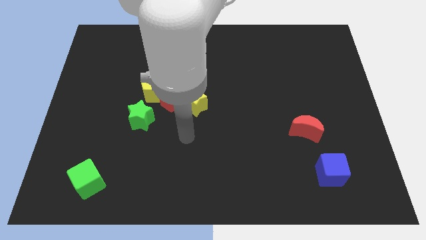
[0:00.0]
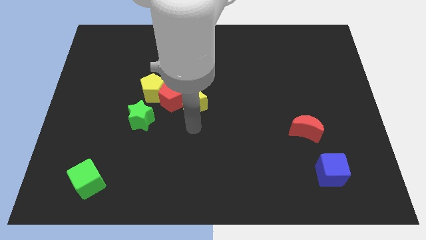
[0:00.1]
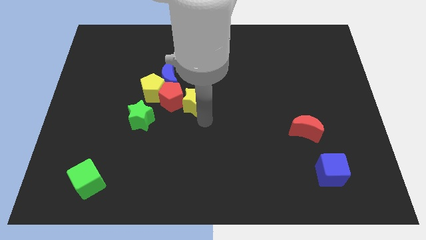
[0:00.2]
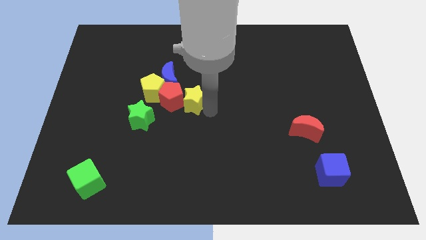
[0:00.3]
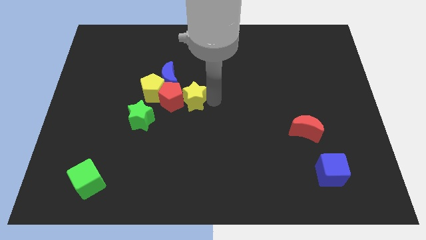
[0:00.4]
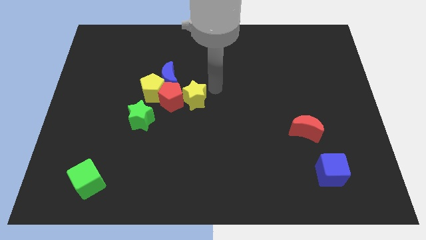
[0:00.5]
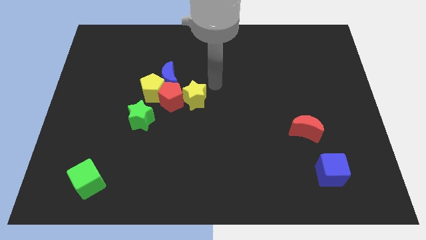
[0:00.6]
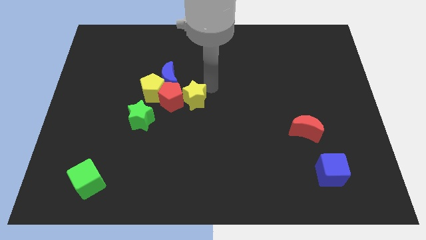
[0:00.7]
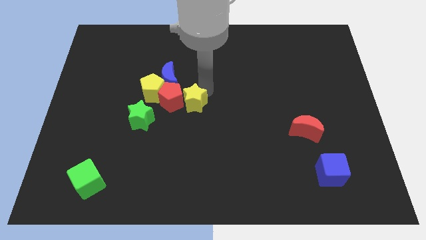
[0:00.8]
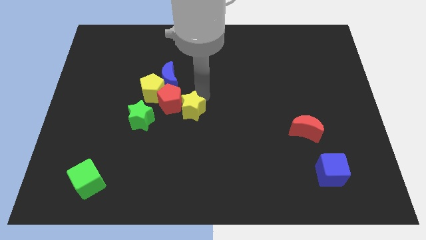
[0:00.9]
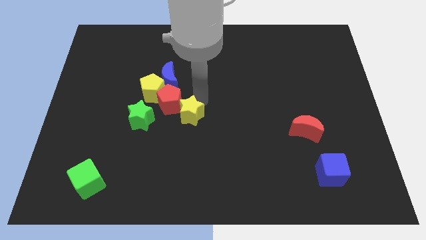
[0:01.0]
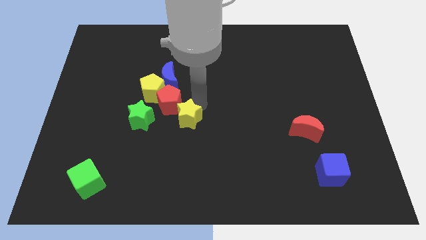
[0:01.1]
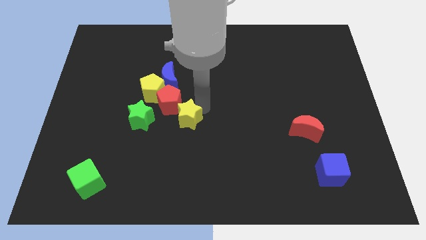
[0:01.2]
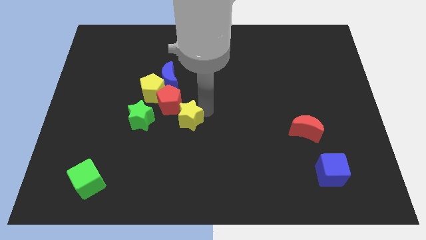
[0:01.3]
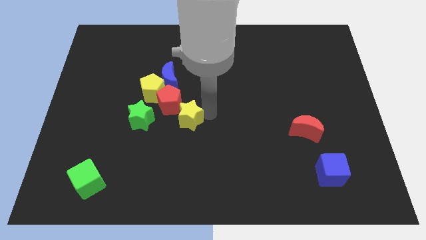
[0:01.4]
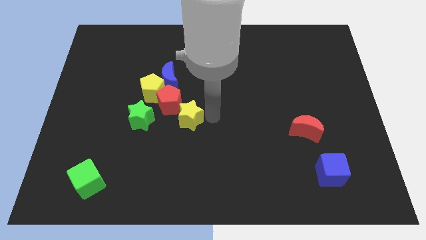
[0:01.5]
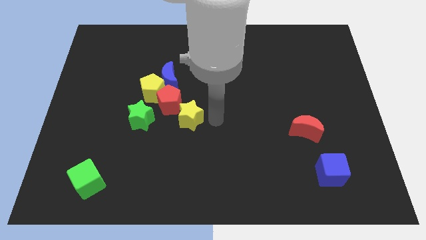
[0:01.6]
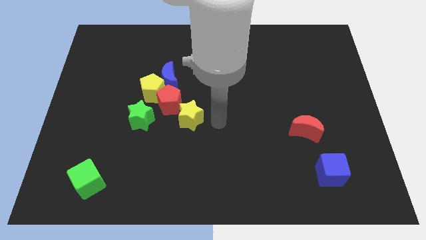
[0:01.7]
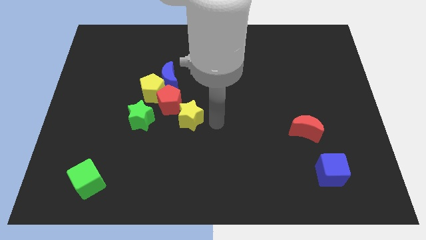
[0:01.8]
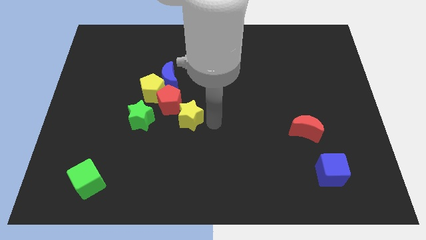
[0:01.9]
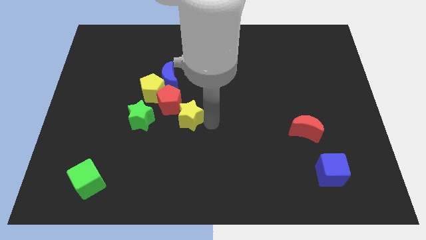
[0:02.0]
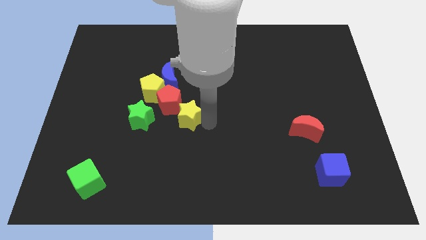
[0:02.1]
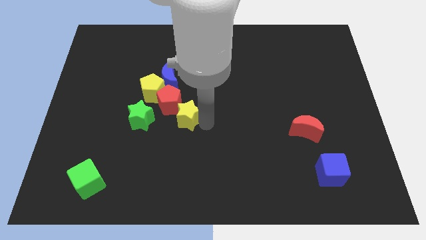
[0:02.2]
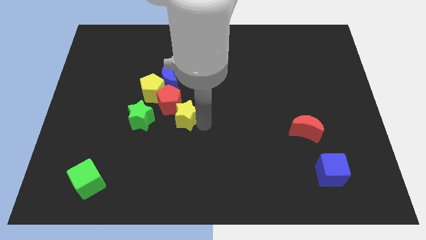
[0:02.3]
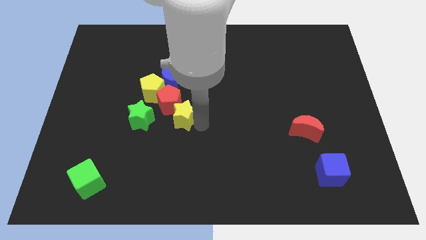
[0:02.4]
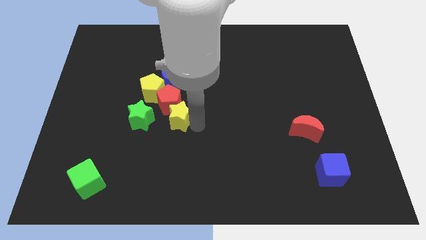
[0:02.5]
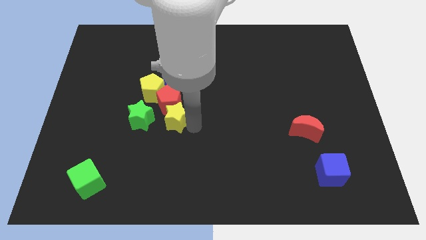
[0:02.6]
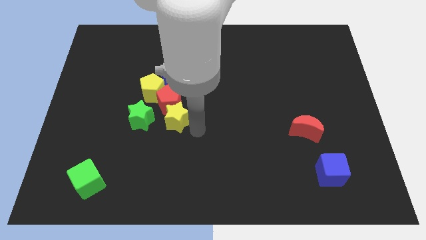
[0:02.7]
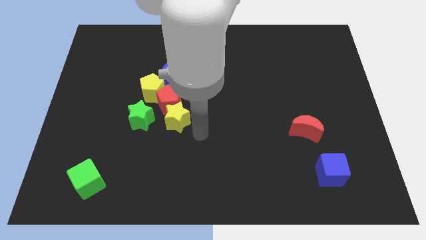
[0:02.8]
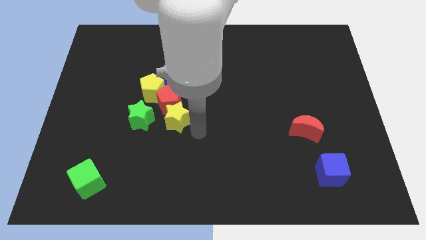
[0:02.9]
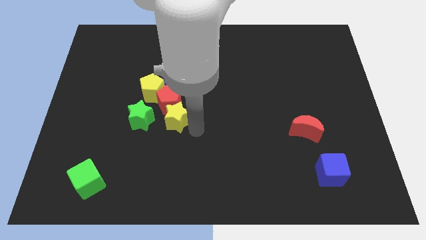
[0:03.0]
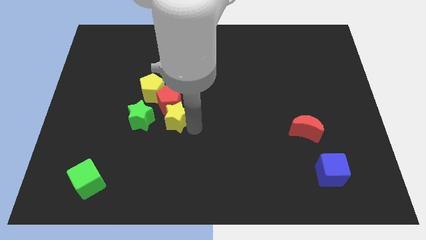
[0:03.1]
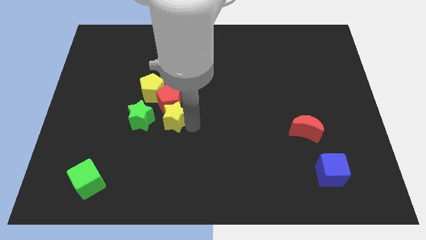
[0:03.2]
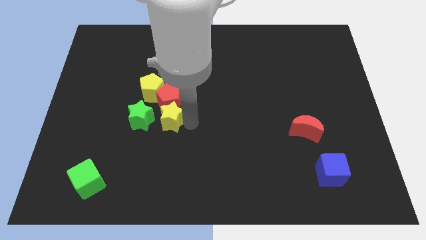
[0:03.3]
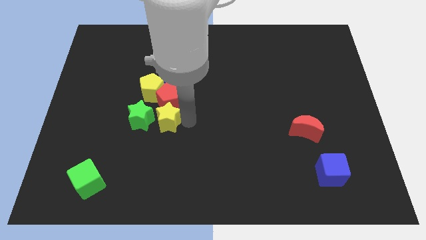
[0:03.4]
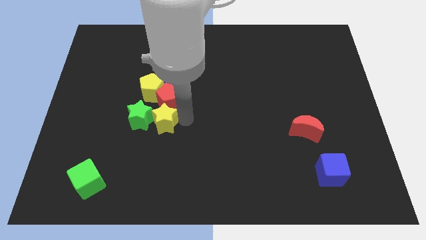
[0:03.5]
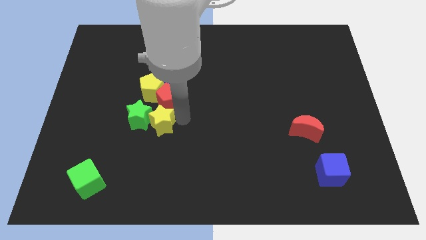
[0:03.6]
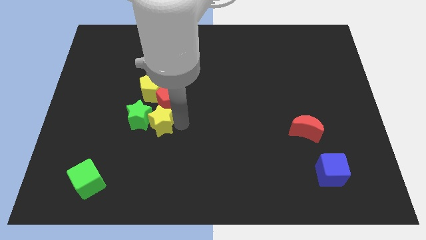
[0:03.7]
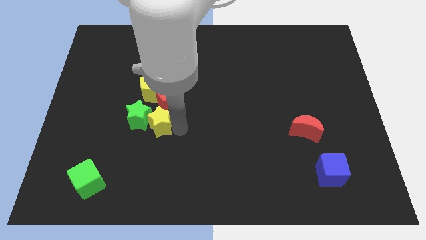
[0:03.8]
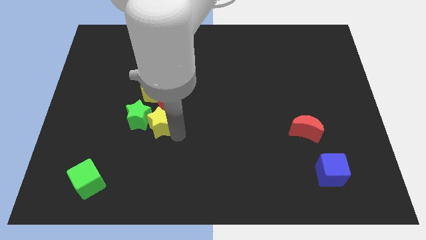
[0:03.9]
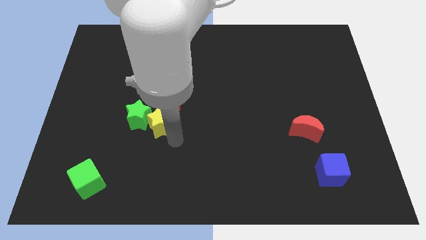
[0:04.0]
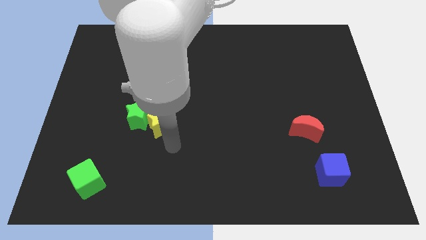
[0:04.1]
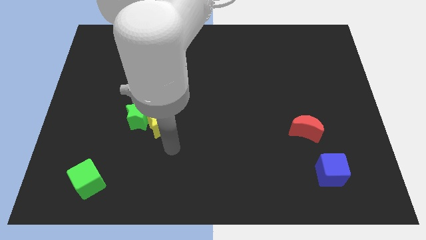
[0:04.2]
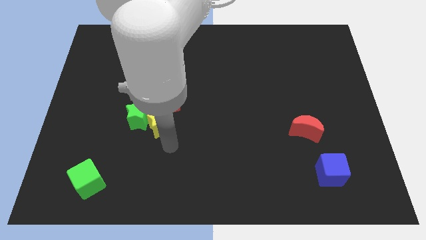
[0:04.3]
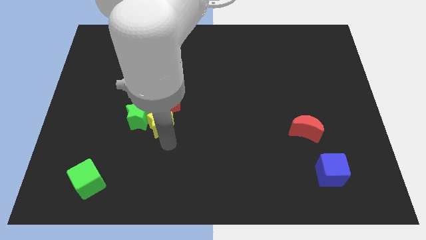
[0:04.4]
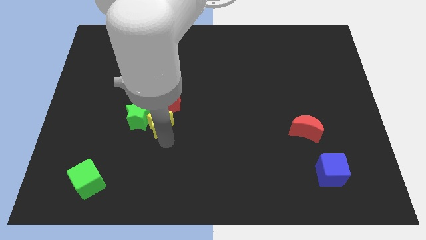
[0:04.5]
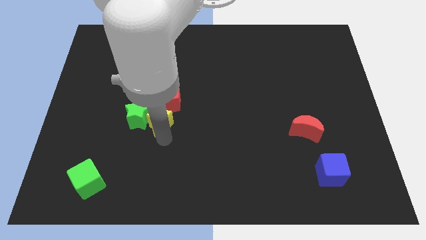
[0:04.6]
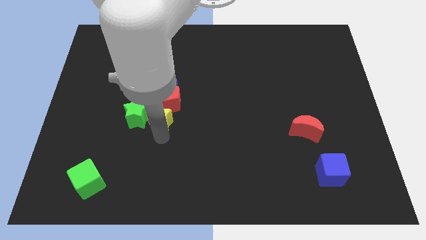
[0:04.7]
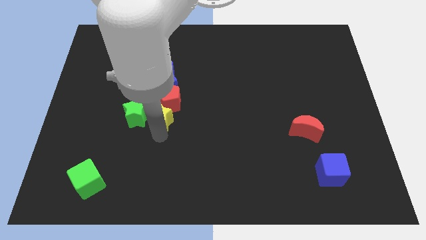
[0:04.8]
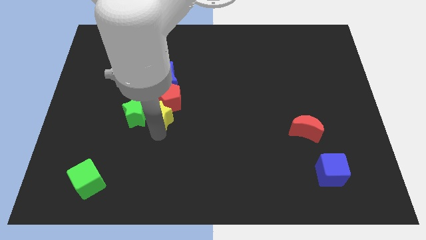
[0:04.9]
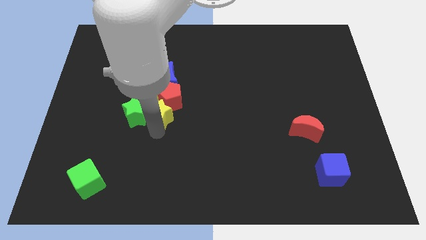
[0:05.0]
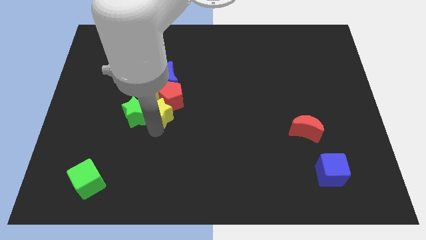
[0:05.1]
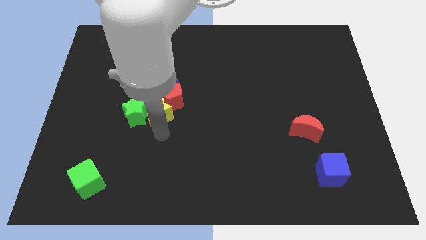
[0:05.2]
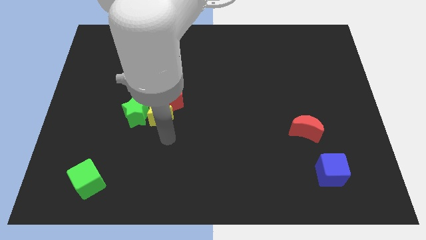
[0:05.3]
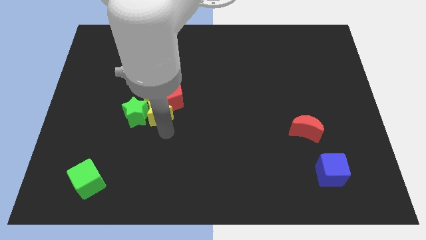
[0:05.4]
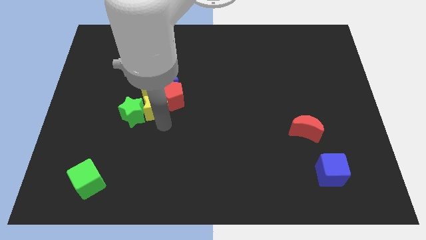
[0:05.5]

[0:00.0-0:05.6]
slide the yellow star next to the yellow pentagon

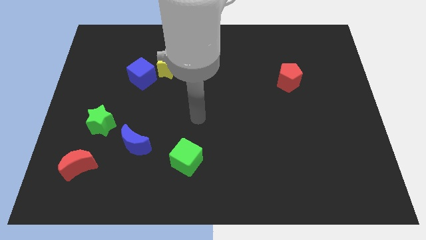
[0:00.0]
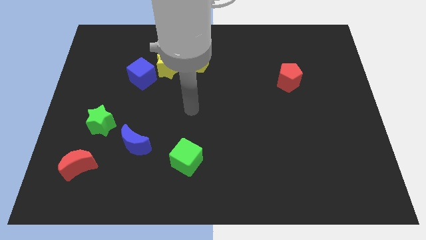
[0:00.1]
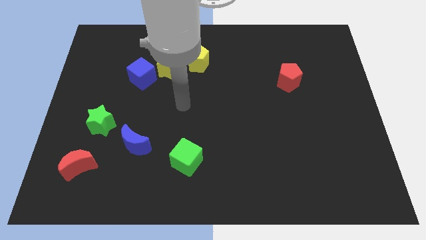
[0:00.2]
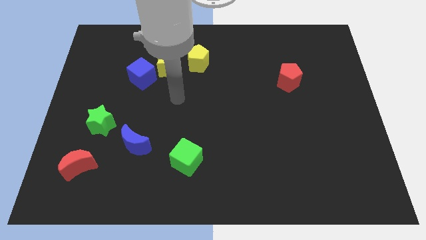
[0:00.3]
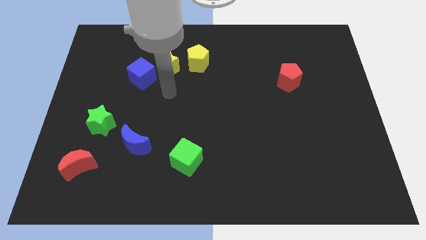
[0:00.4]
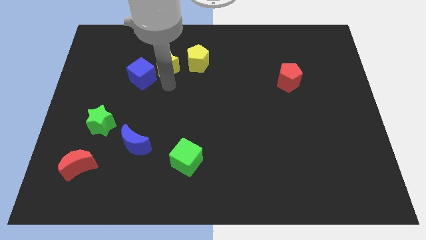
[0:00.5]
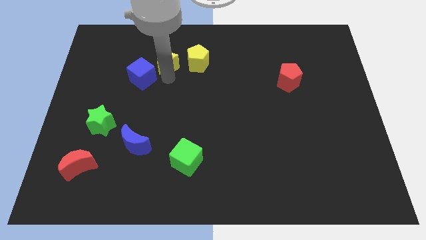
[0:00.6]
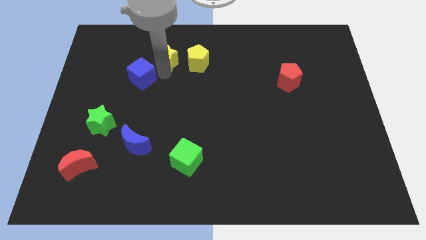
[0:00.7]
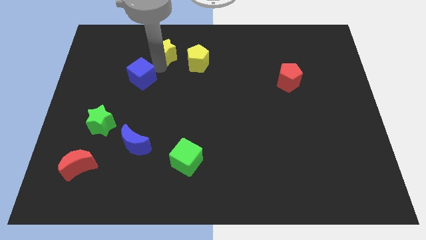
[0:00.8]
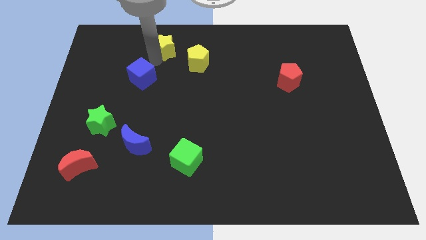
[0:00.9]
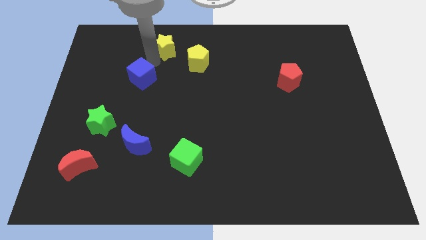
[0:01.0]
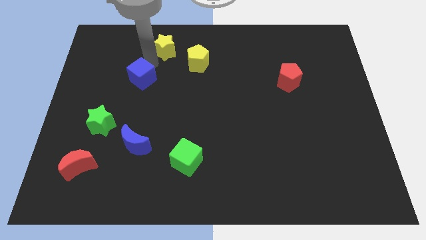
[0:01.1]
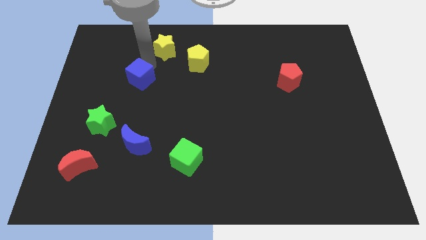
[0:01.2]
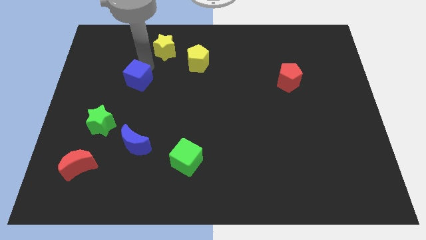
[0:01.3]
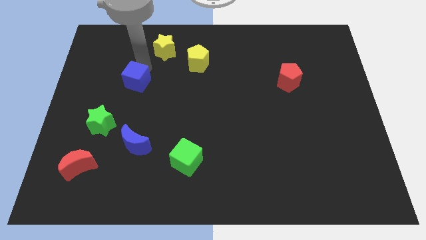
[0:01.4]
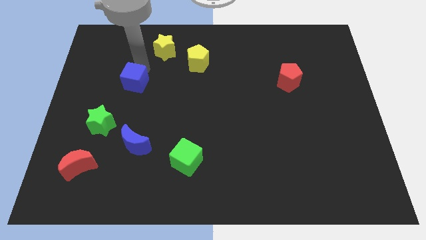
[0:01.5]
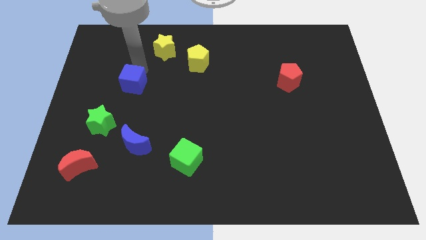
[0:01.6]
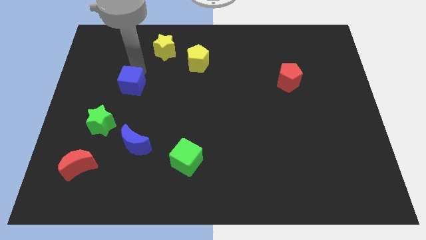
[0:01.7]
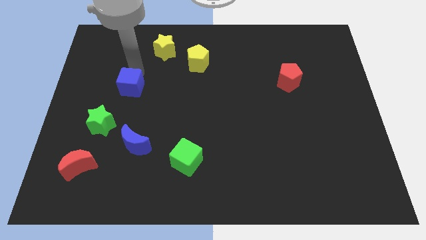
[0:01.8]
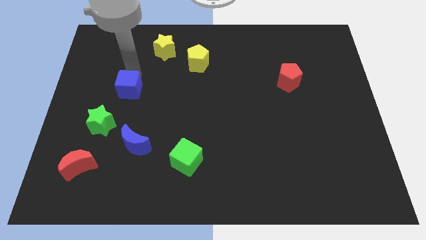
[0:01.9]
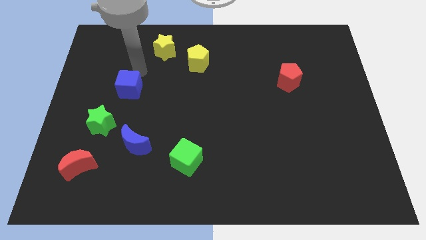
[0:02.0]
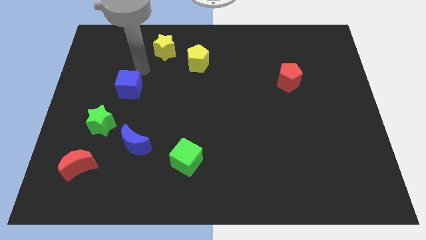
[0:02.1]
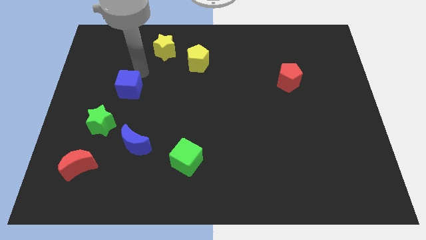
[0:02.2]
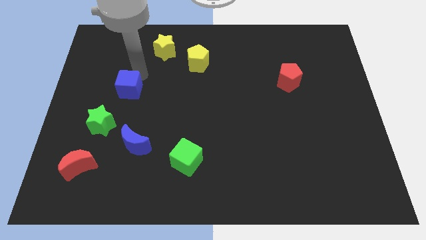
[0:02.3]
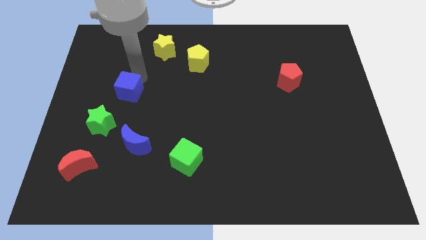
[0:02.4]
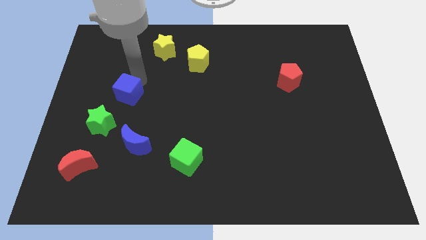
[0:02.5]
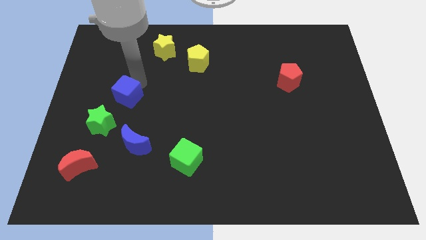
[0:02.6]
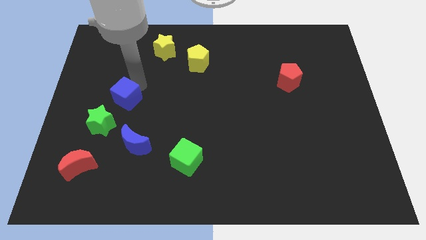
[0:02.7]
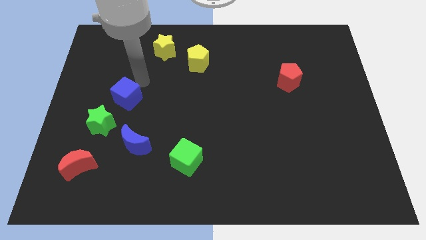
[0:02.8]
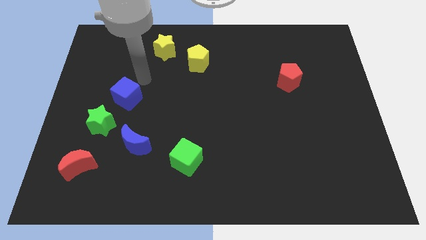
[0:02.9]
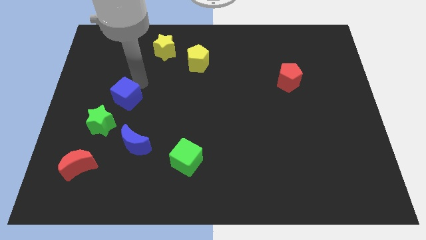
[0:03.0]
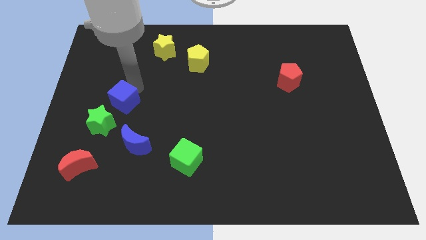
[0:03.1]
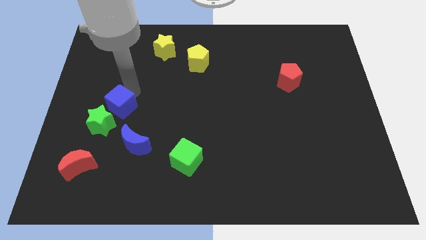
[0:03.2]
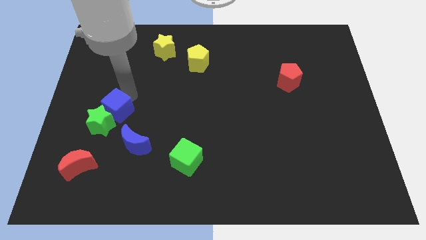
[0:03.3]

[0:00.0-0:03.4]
push the blue cube close to the green star
